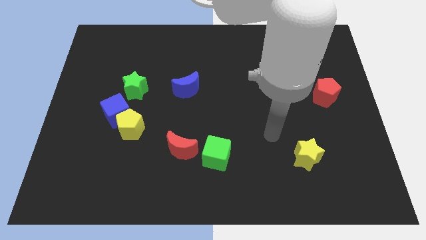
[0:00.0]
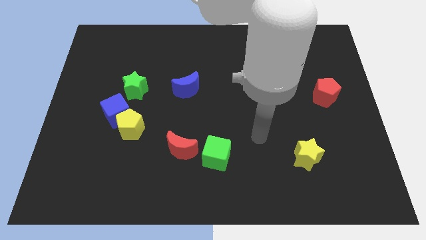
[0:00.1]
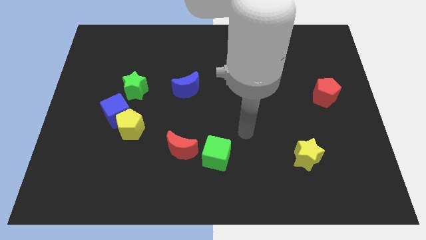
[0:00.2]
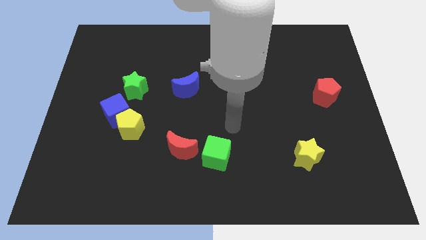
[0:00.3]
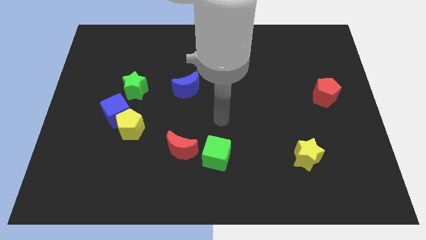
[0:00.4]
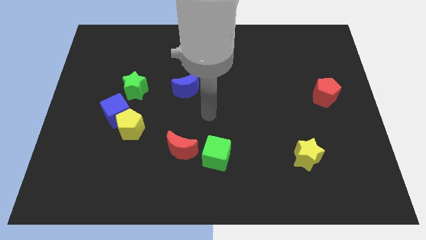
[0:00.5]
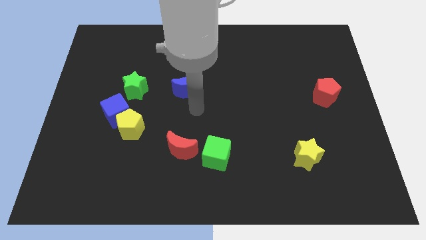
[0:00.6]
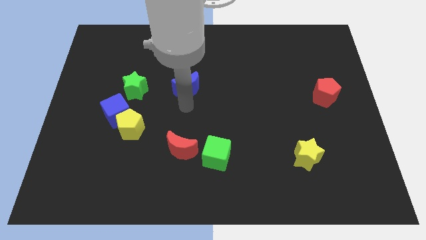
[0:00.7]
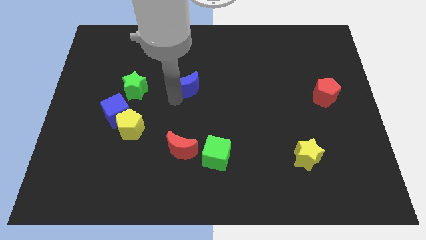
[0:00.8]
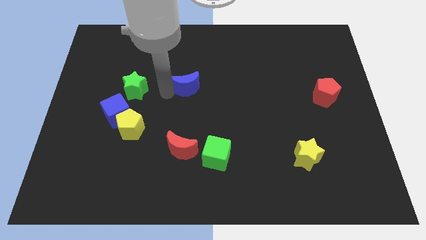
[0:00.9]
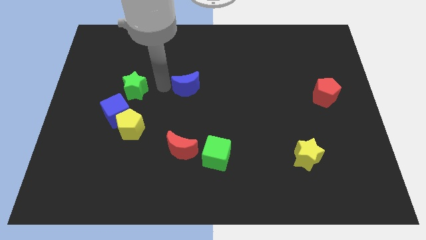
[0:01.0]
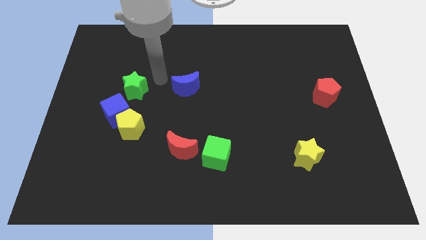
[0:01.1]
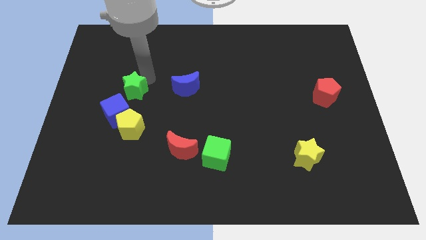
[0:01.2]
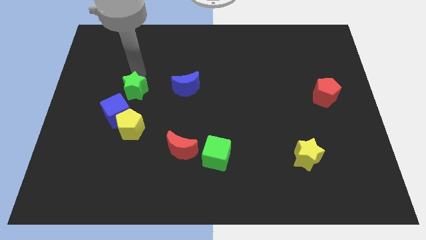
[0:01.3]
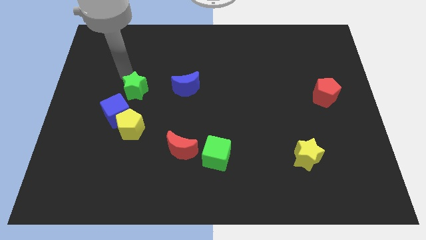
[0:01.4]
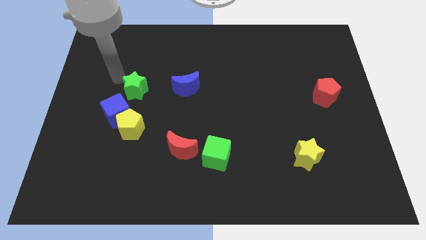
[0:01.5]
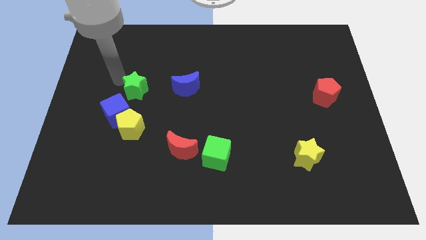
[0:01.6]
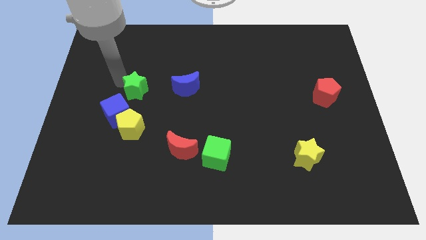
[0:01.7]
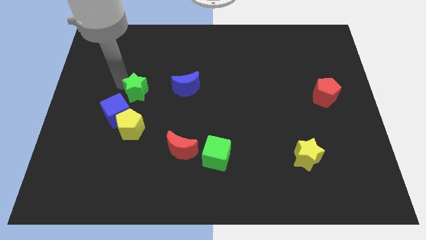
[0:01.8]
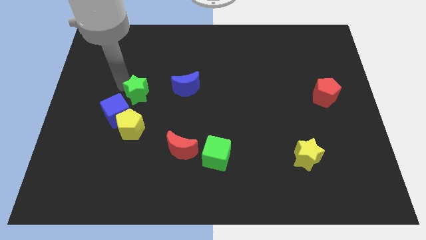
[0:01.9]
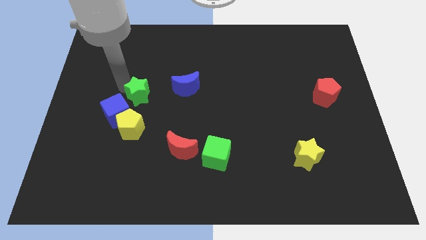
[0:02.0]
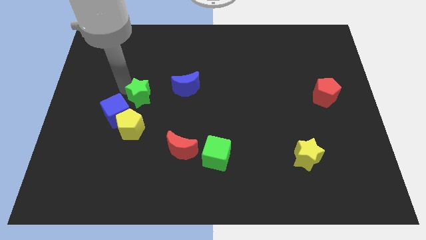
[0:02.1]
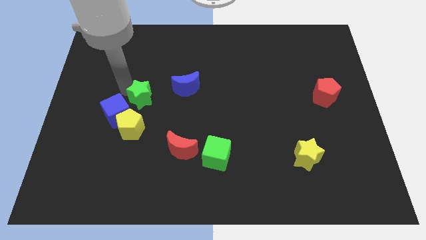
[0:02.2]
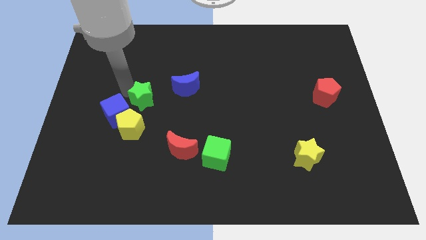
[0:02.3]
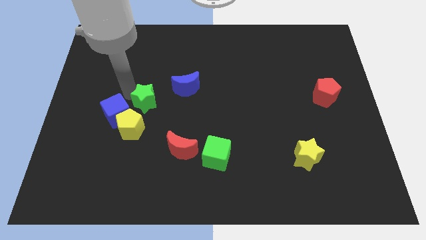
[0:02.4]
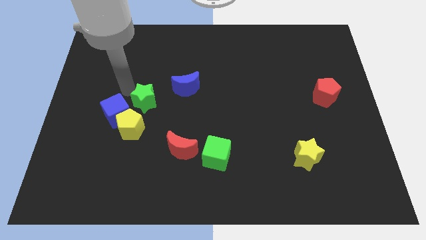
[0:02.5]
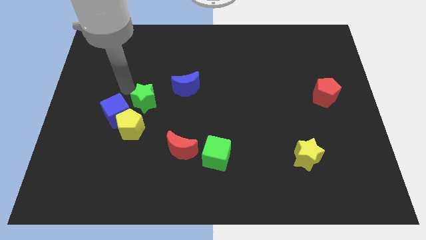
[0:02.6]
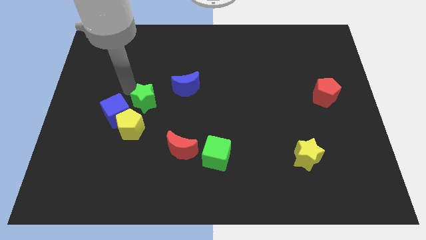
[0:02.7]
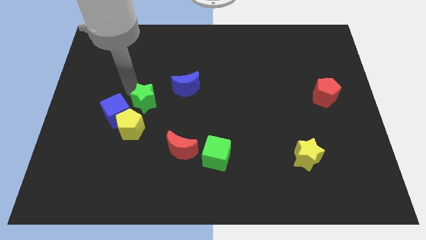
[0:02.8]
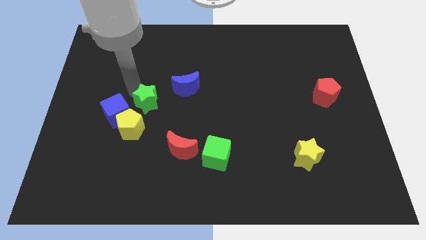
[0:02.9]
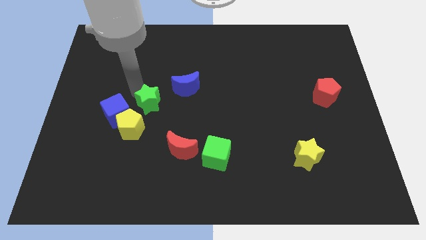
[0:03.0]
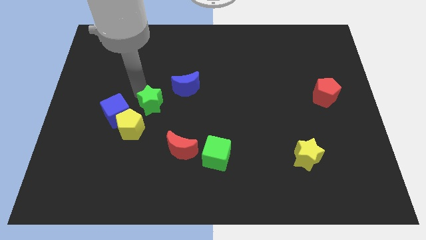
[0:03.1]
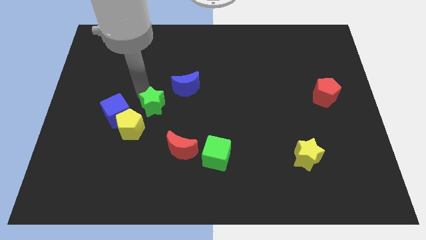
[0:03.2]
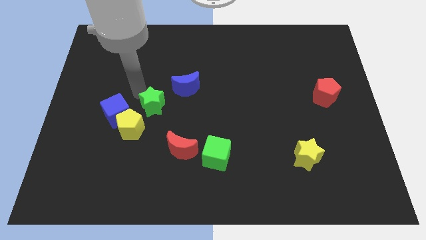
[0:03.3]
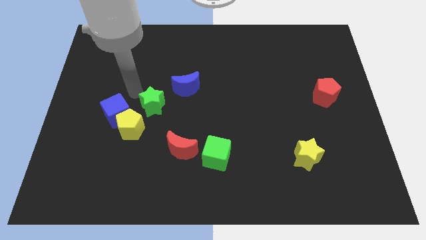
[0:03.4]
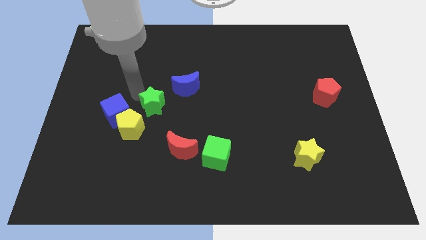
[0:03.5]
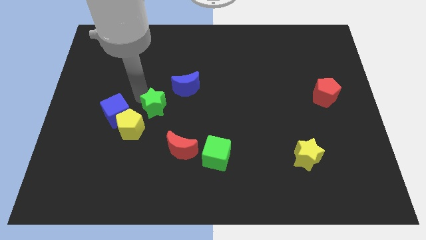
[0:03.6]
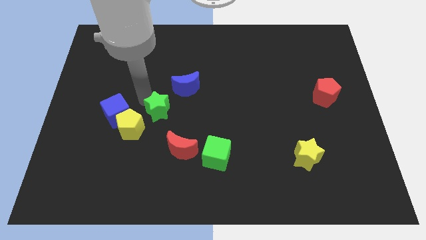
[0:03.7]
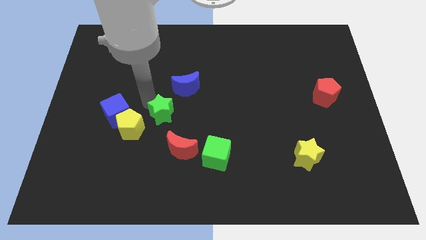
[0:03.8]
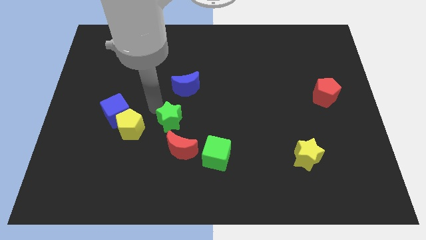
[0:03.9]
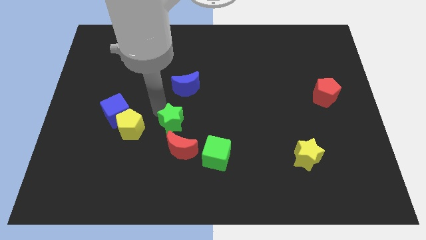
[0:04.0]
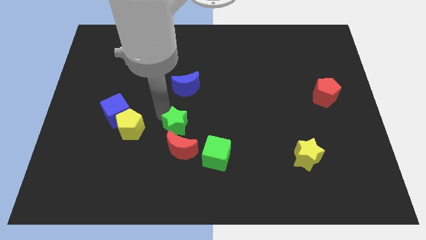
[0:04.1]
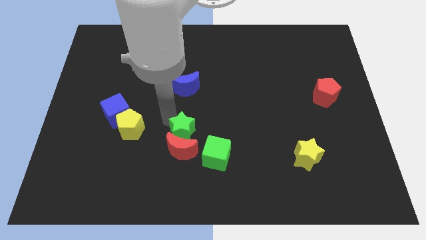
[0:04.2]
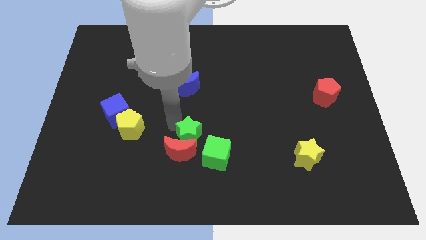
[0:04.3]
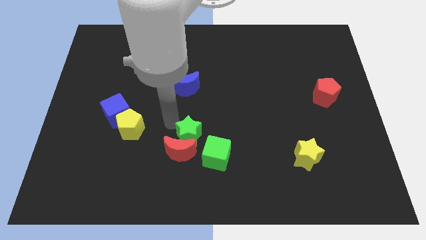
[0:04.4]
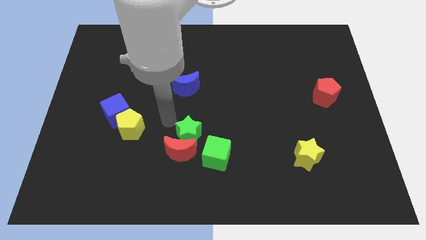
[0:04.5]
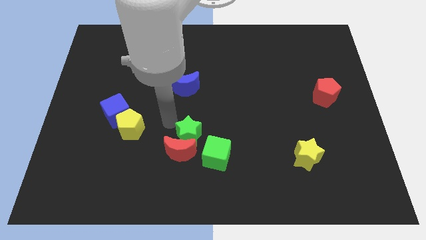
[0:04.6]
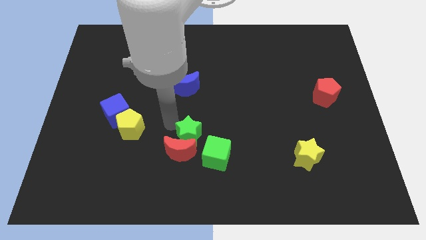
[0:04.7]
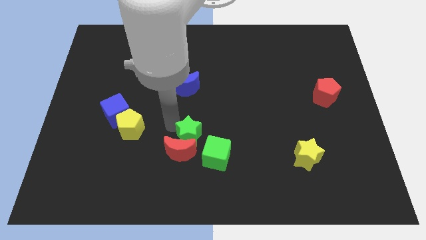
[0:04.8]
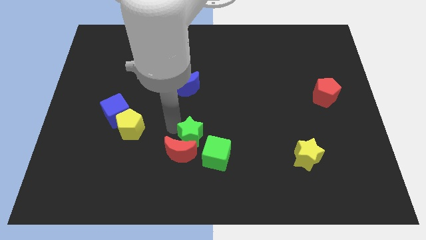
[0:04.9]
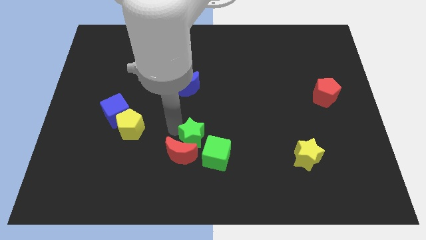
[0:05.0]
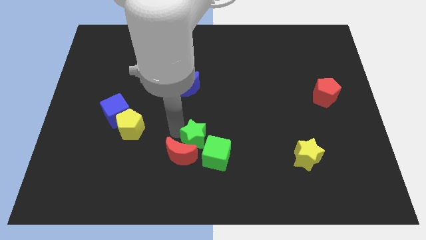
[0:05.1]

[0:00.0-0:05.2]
put the green star next to the green cube

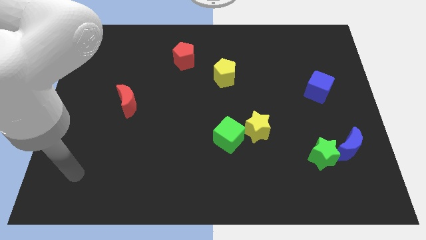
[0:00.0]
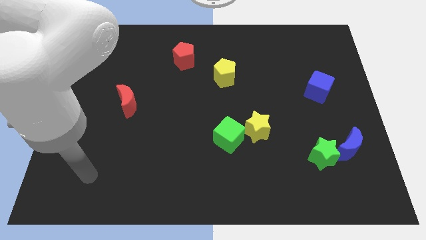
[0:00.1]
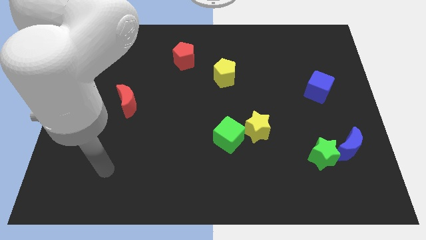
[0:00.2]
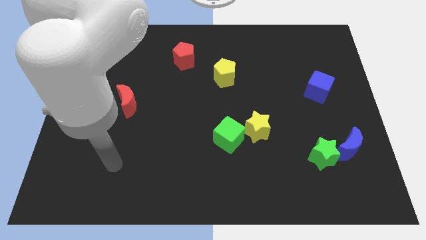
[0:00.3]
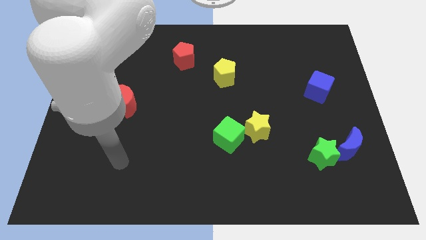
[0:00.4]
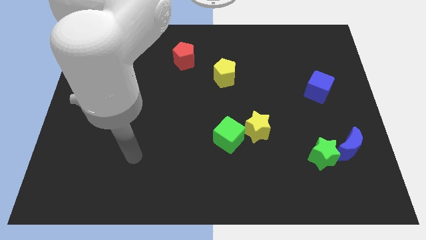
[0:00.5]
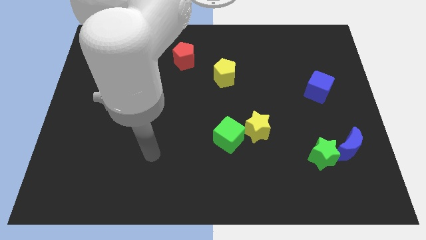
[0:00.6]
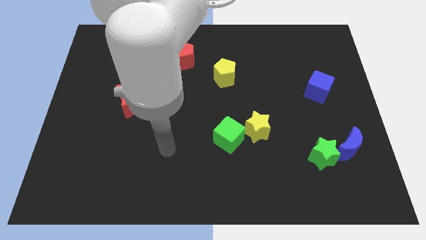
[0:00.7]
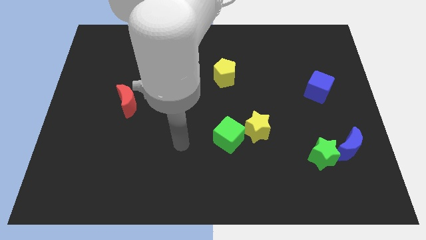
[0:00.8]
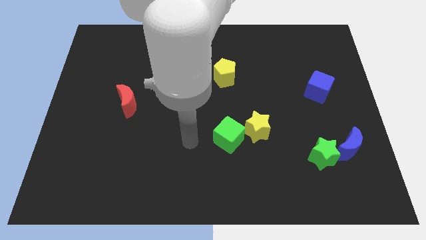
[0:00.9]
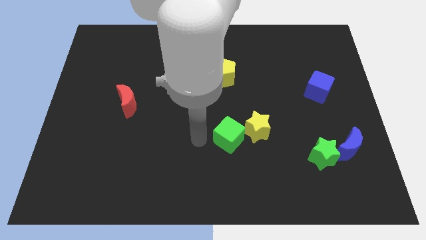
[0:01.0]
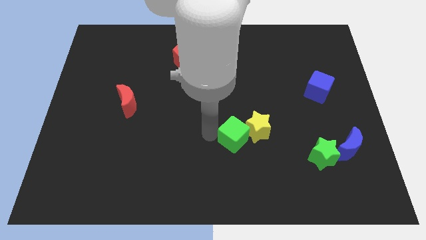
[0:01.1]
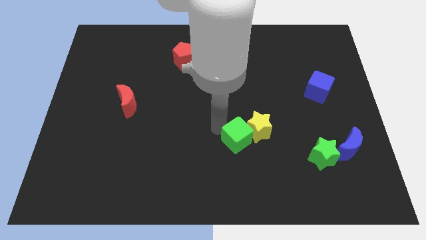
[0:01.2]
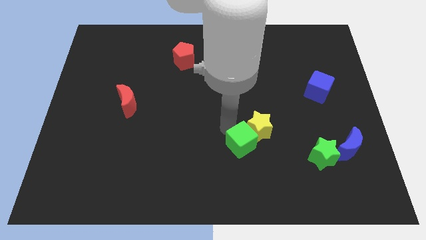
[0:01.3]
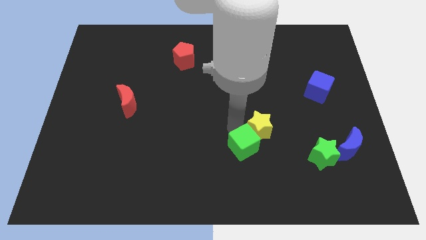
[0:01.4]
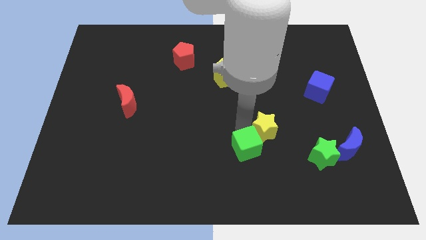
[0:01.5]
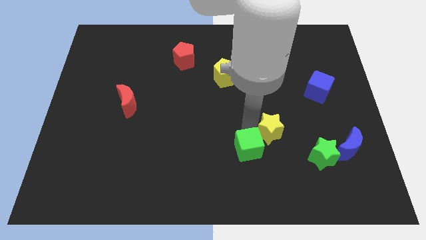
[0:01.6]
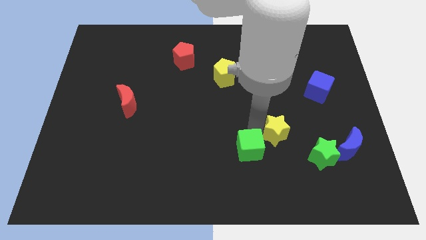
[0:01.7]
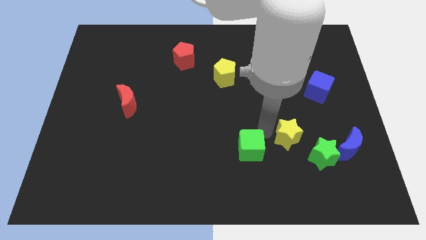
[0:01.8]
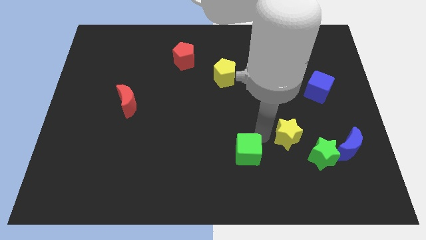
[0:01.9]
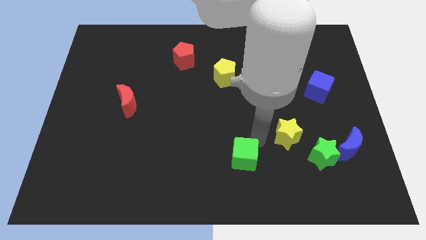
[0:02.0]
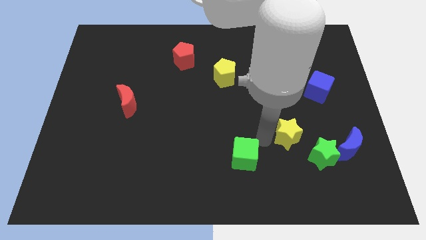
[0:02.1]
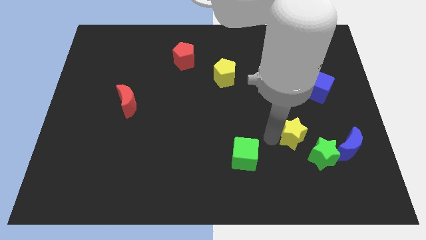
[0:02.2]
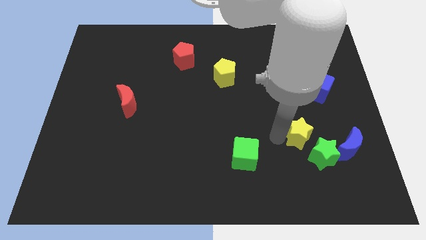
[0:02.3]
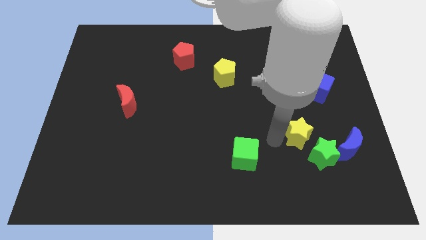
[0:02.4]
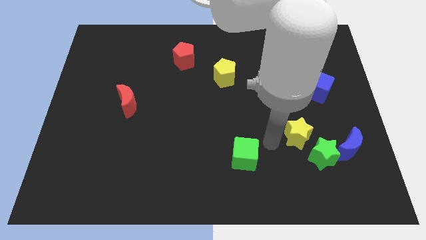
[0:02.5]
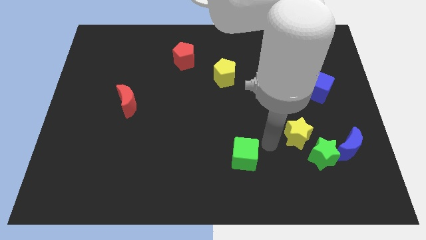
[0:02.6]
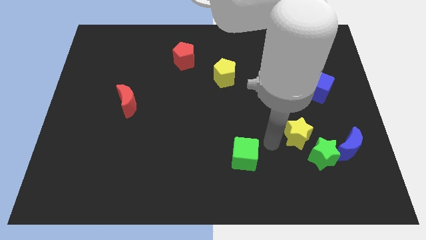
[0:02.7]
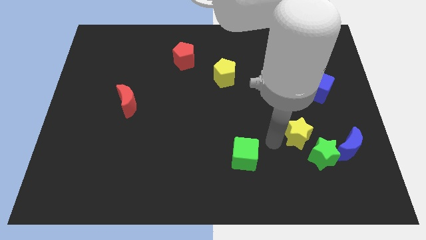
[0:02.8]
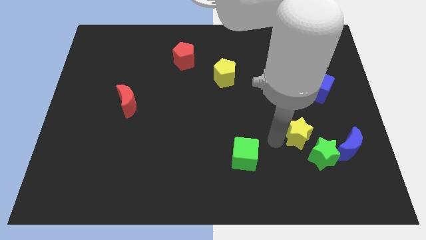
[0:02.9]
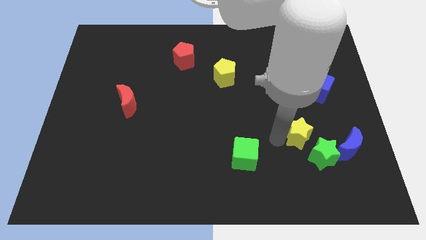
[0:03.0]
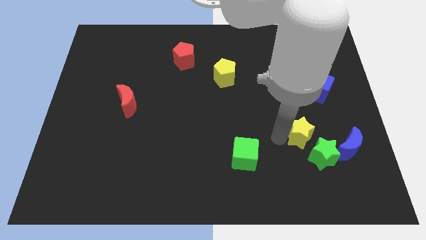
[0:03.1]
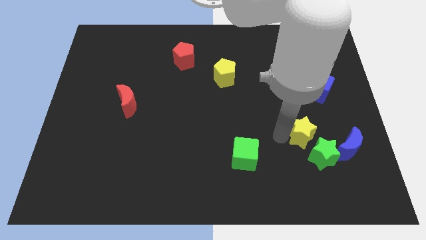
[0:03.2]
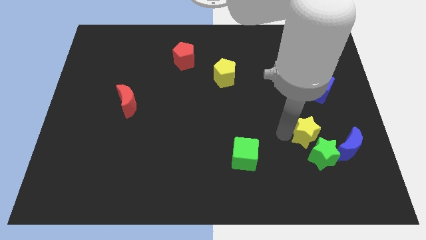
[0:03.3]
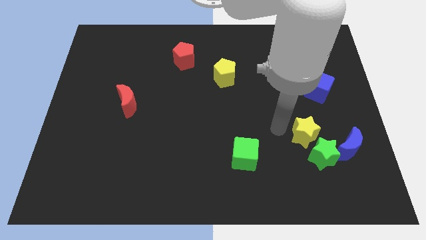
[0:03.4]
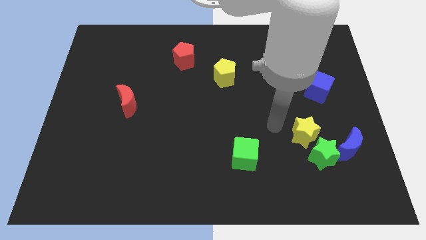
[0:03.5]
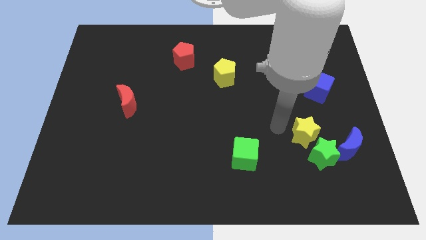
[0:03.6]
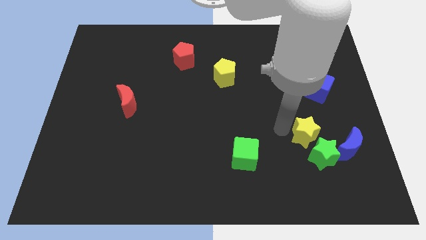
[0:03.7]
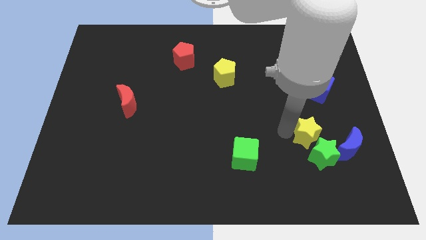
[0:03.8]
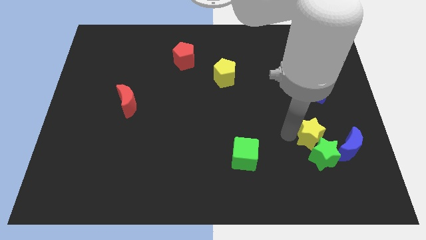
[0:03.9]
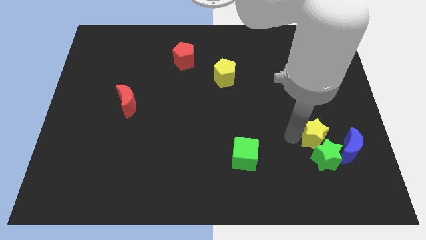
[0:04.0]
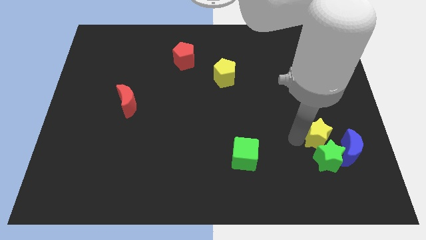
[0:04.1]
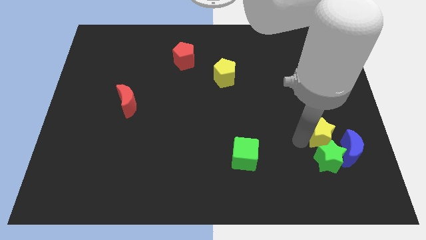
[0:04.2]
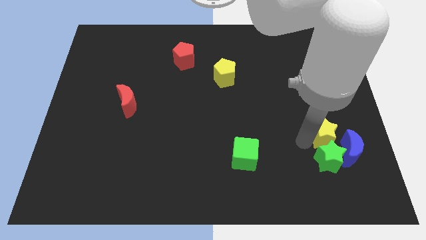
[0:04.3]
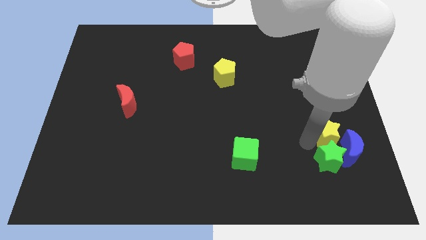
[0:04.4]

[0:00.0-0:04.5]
push the yellow star to the blue moon
